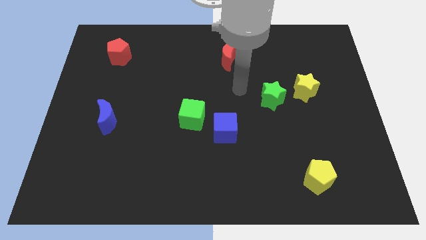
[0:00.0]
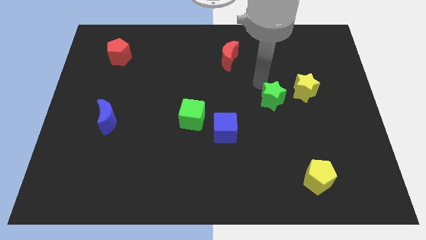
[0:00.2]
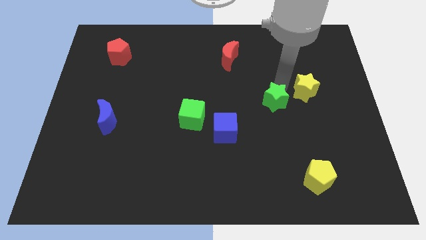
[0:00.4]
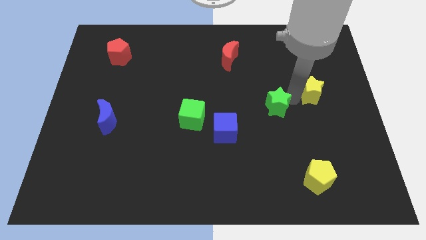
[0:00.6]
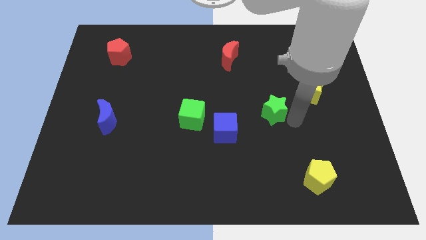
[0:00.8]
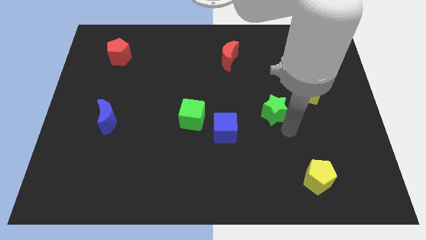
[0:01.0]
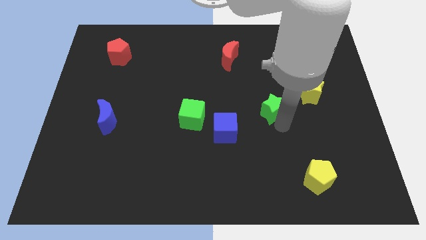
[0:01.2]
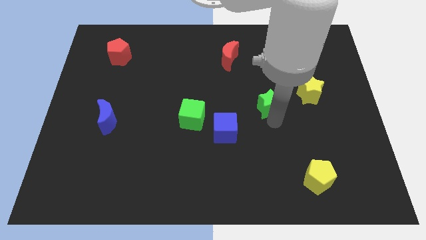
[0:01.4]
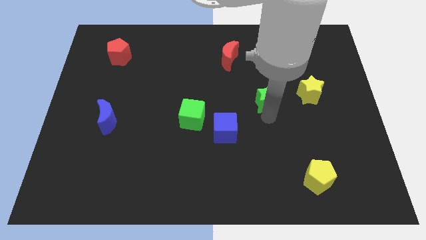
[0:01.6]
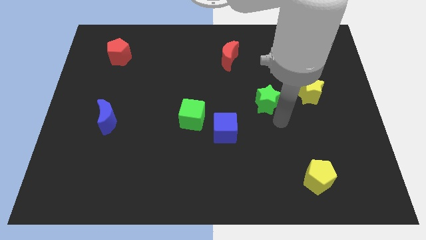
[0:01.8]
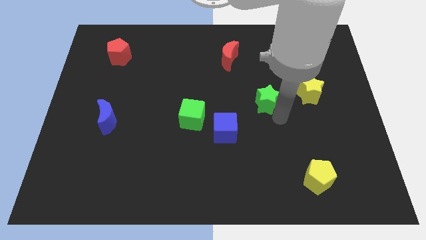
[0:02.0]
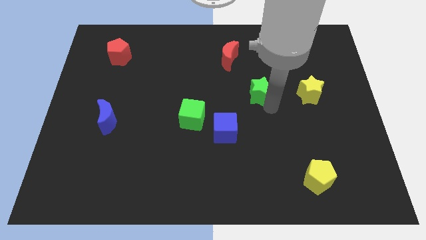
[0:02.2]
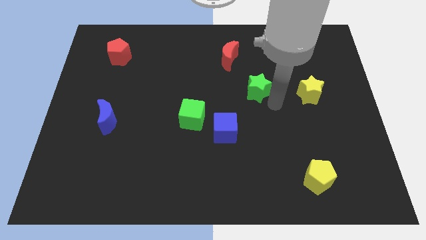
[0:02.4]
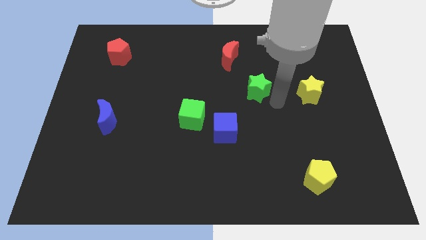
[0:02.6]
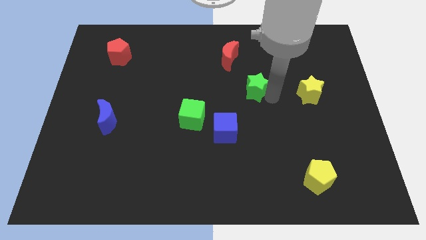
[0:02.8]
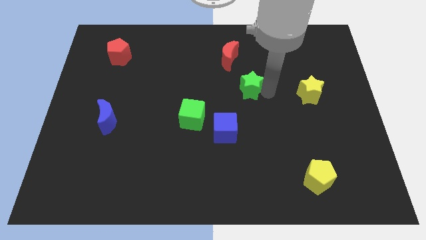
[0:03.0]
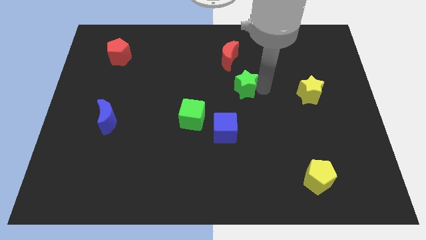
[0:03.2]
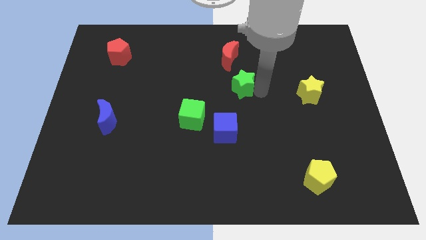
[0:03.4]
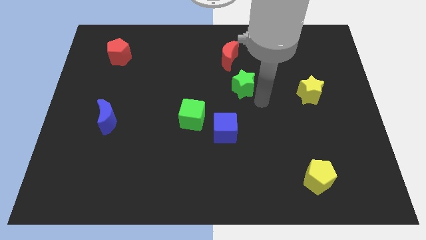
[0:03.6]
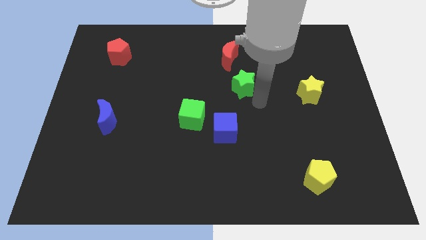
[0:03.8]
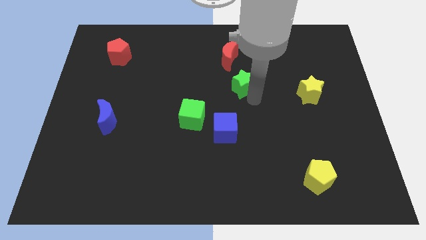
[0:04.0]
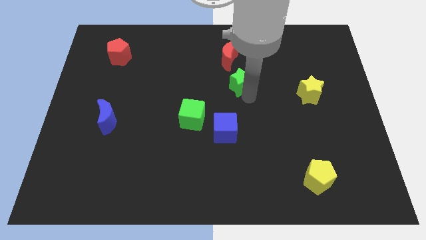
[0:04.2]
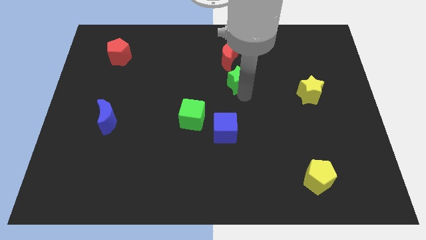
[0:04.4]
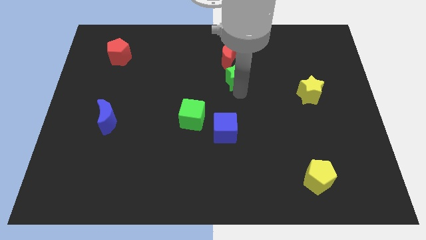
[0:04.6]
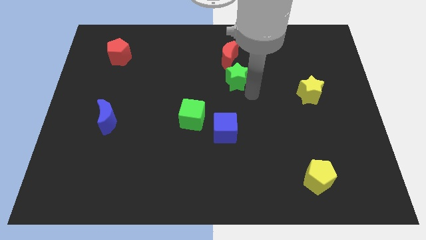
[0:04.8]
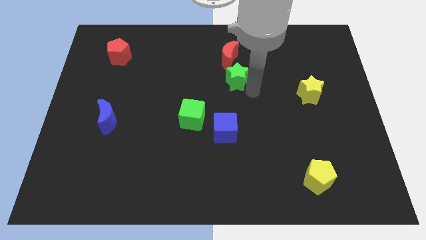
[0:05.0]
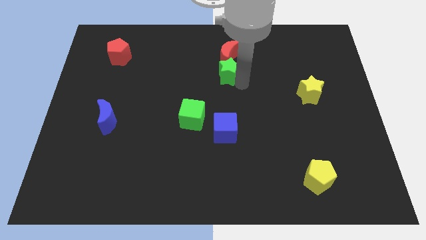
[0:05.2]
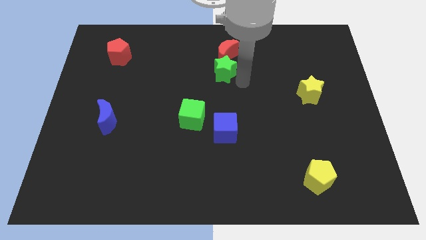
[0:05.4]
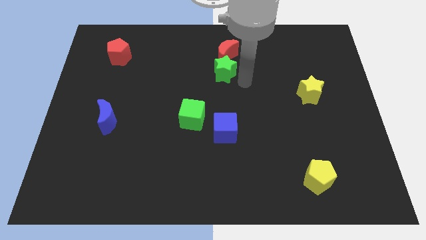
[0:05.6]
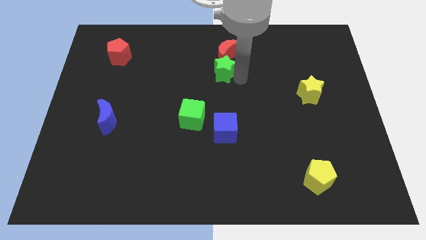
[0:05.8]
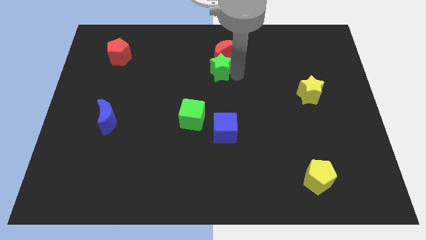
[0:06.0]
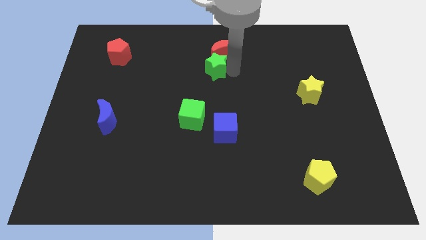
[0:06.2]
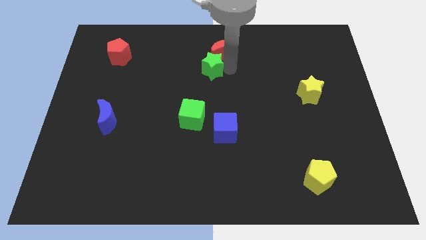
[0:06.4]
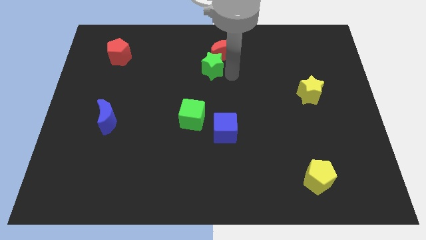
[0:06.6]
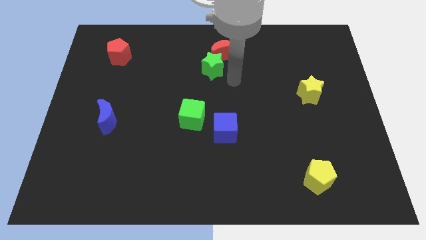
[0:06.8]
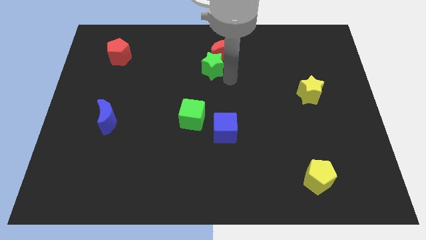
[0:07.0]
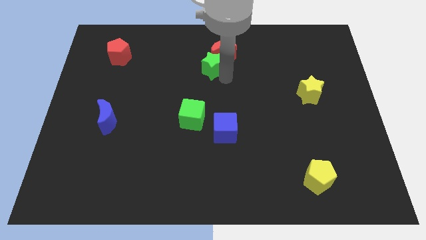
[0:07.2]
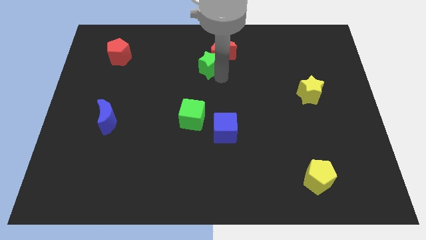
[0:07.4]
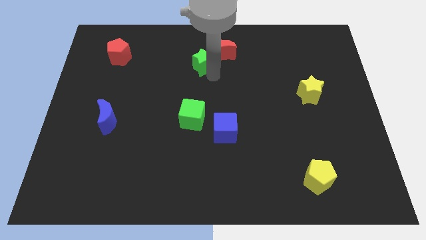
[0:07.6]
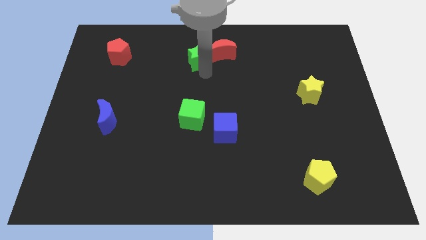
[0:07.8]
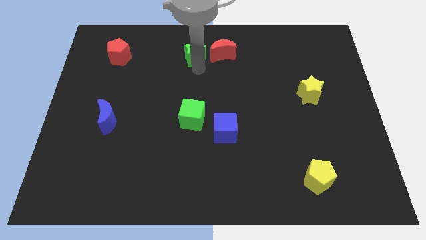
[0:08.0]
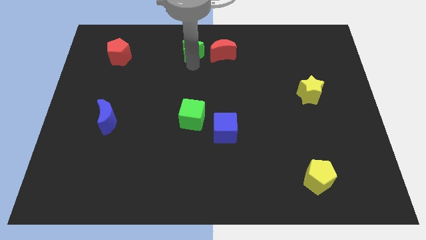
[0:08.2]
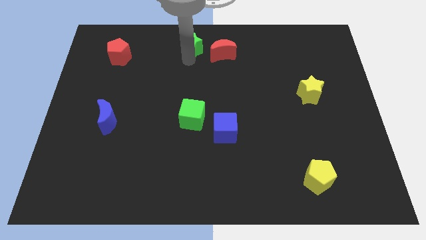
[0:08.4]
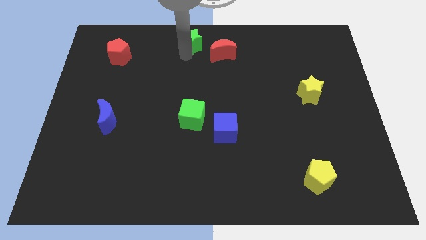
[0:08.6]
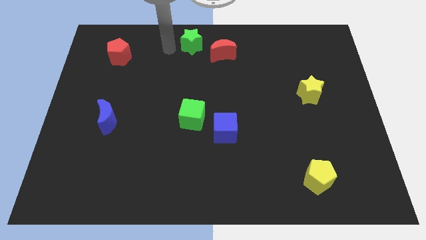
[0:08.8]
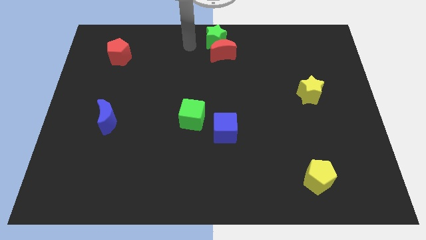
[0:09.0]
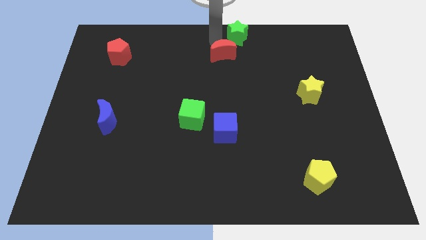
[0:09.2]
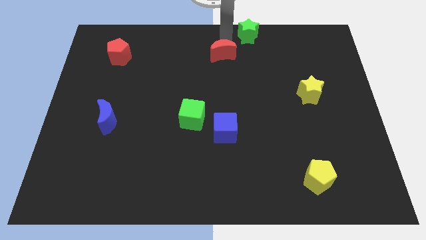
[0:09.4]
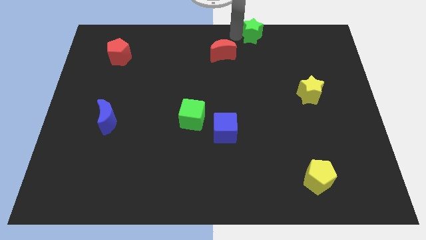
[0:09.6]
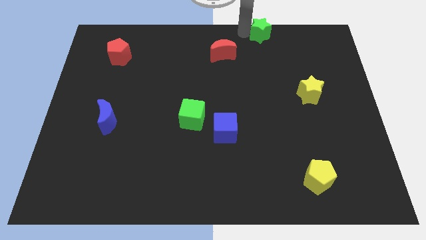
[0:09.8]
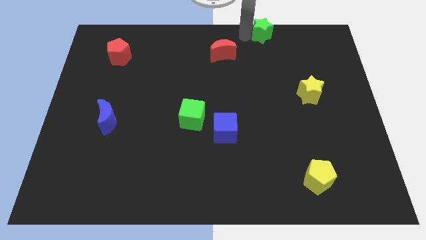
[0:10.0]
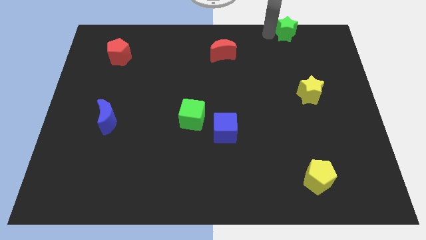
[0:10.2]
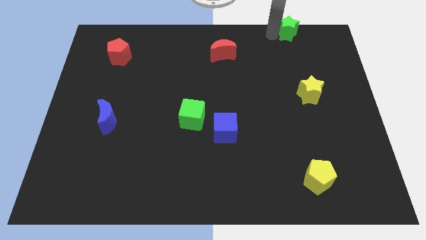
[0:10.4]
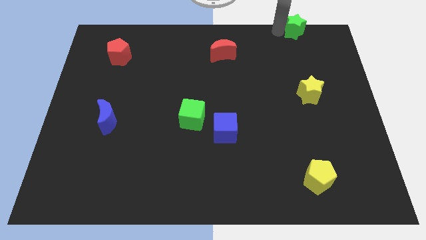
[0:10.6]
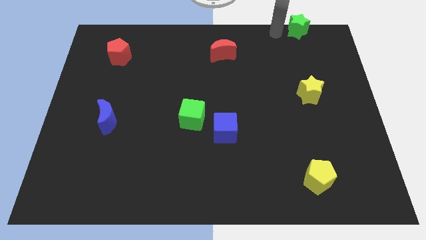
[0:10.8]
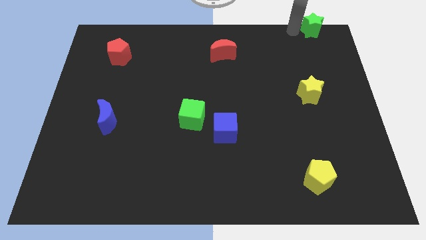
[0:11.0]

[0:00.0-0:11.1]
put the green star to the top right corner
